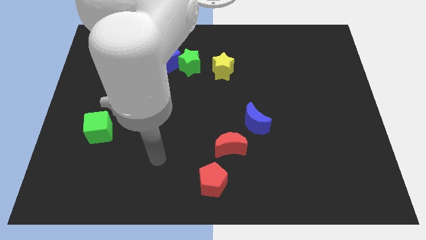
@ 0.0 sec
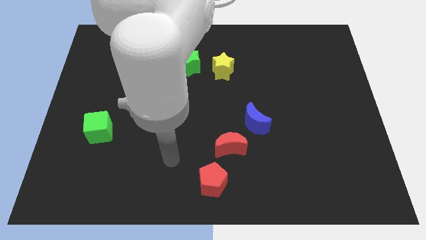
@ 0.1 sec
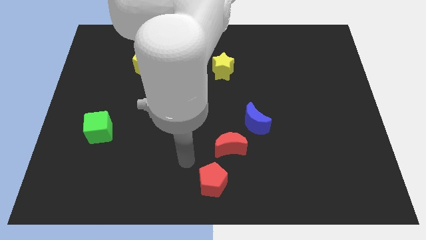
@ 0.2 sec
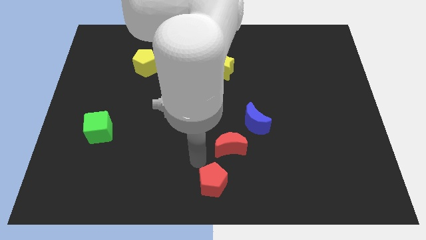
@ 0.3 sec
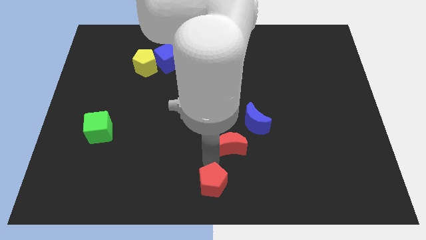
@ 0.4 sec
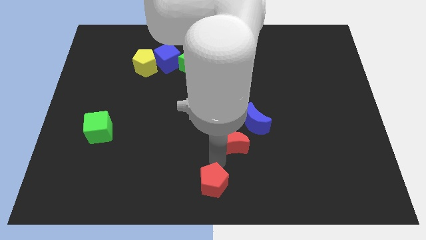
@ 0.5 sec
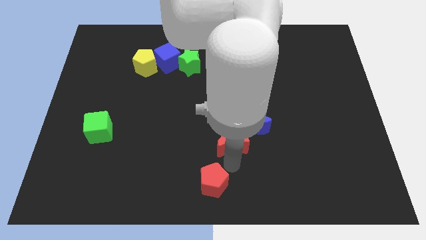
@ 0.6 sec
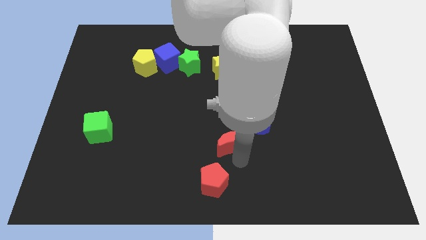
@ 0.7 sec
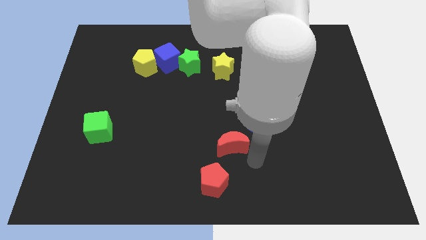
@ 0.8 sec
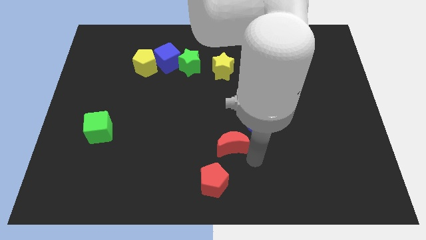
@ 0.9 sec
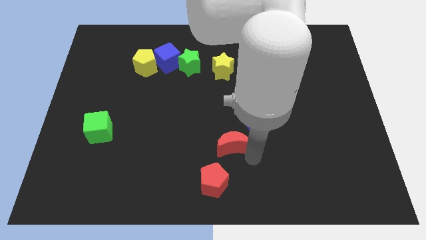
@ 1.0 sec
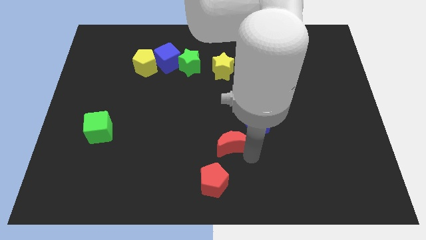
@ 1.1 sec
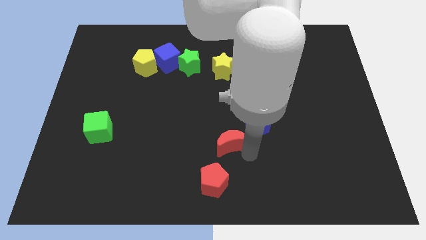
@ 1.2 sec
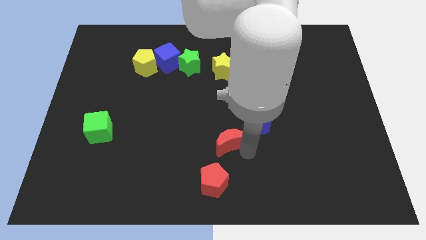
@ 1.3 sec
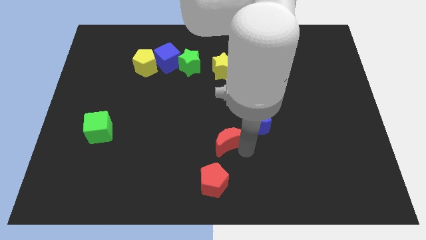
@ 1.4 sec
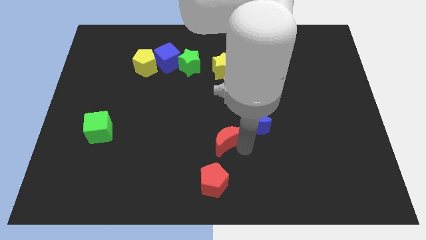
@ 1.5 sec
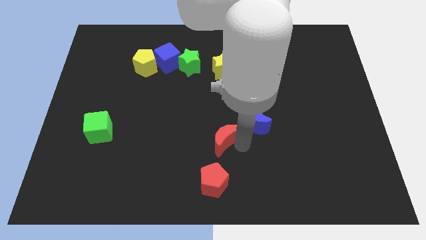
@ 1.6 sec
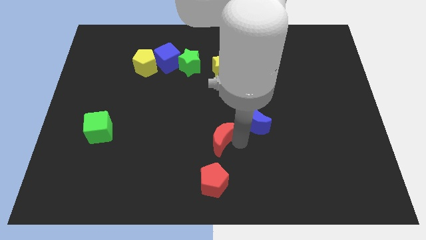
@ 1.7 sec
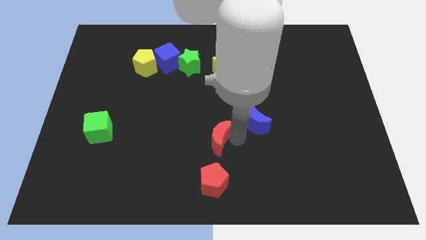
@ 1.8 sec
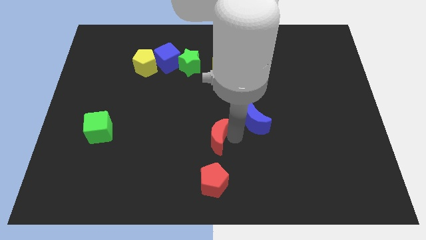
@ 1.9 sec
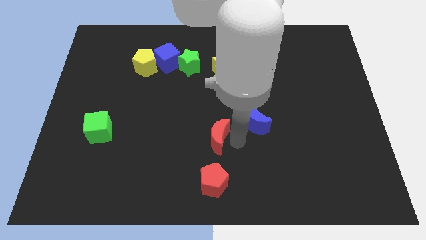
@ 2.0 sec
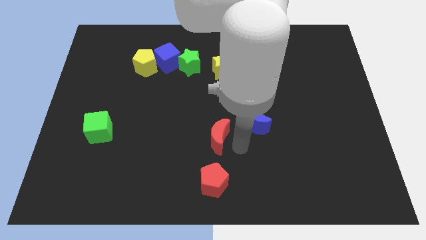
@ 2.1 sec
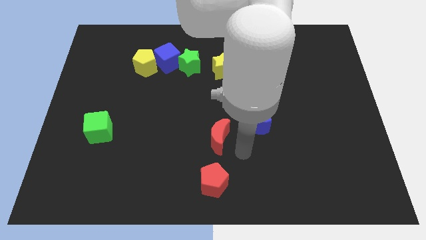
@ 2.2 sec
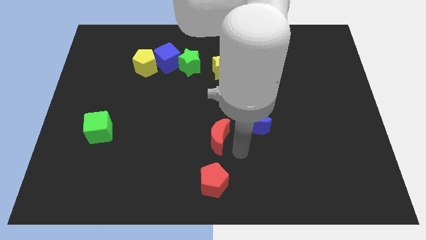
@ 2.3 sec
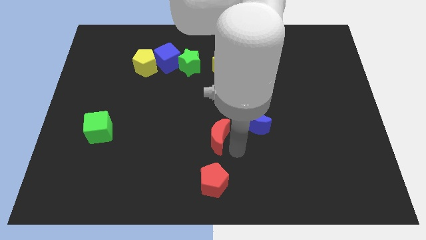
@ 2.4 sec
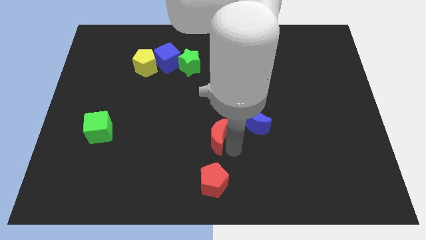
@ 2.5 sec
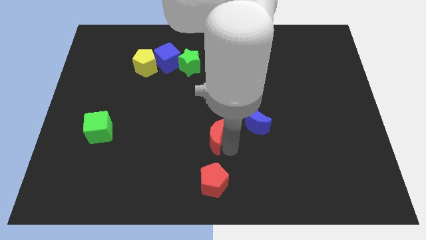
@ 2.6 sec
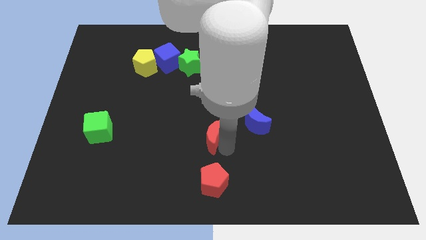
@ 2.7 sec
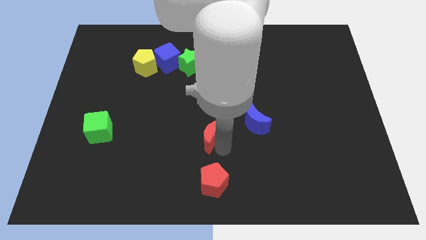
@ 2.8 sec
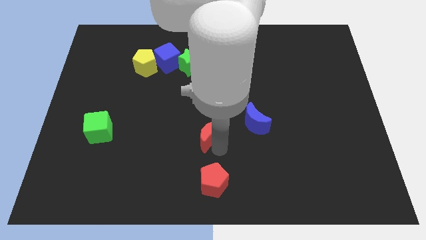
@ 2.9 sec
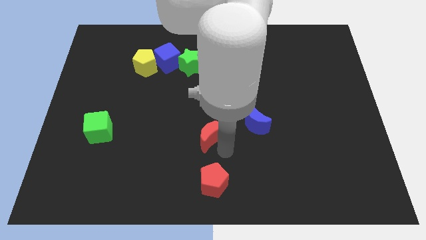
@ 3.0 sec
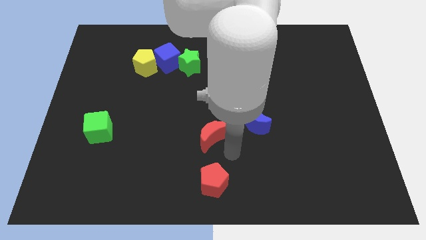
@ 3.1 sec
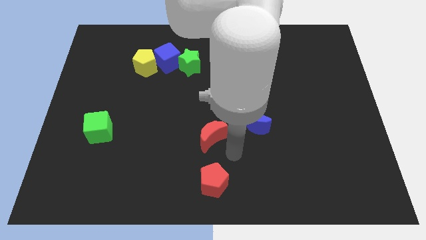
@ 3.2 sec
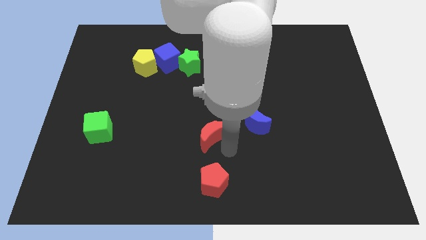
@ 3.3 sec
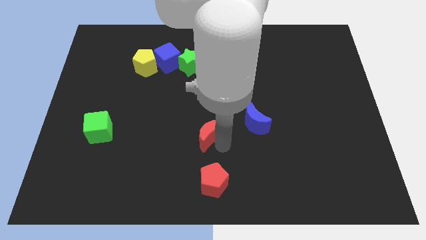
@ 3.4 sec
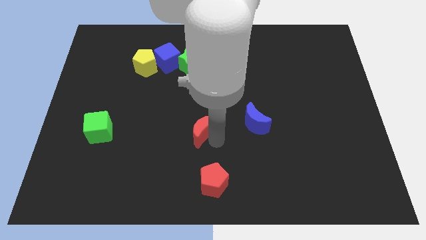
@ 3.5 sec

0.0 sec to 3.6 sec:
slide the red moon a bit upwards and then left

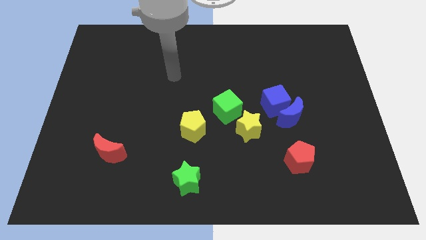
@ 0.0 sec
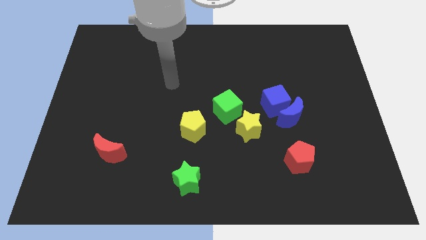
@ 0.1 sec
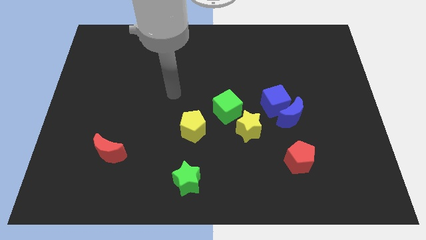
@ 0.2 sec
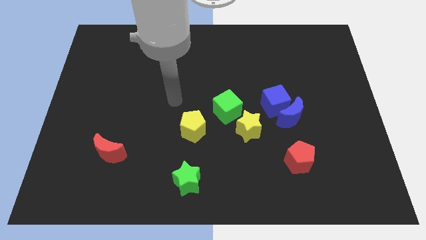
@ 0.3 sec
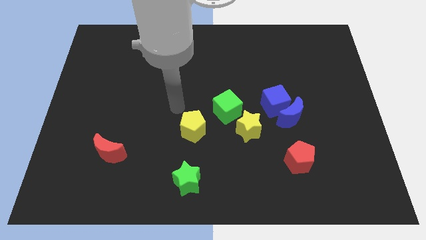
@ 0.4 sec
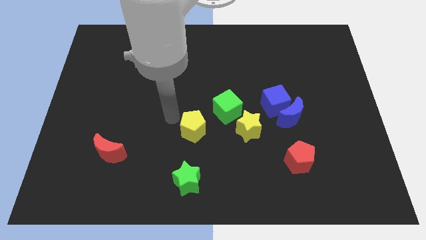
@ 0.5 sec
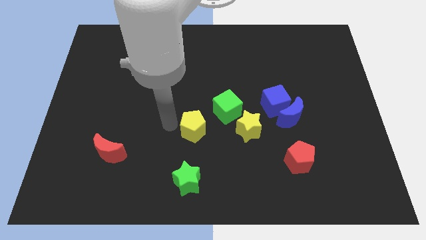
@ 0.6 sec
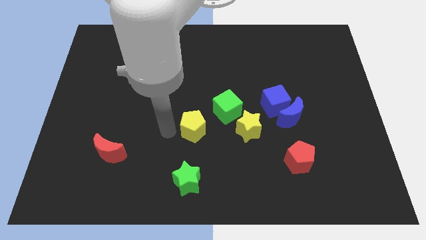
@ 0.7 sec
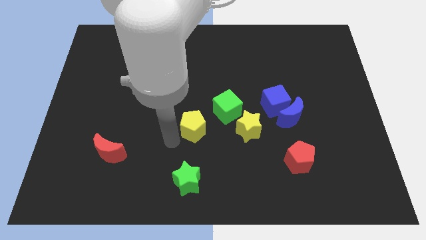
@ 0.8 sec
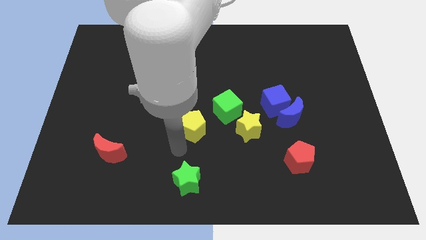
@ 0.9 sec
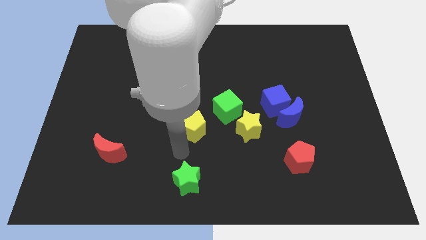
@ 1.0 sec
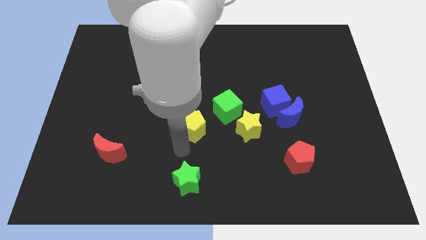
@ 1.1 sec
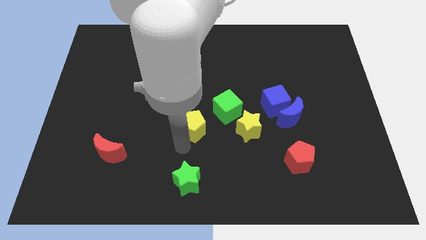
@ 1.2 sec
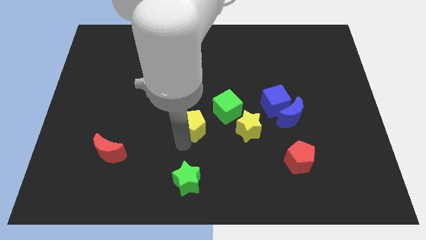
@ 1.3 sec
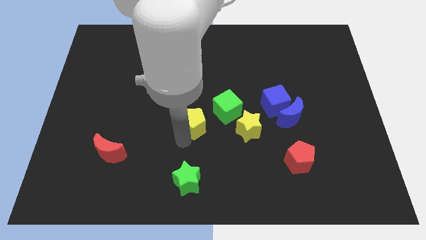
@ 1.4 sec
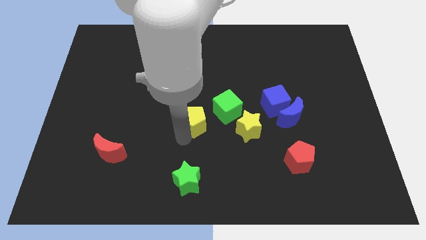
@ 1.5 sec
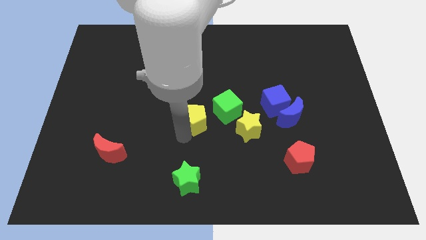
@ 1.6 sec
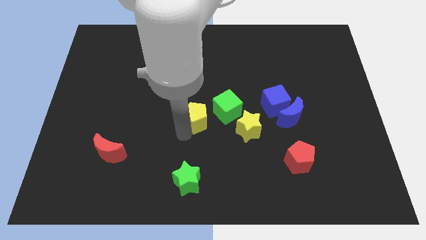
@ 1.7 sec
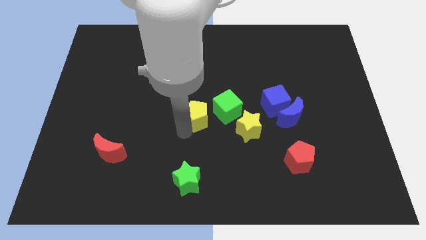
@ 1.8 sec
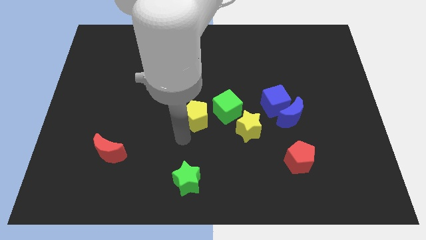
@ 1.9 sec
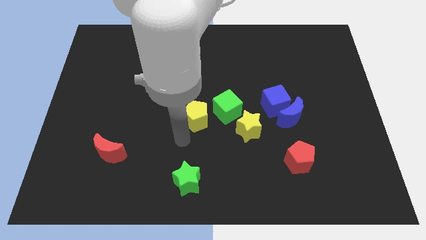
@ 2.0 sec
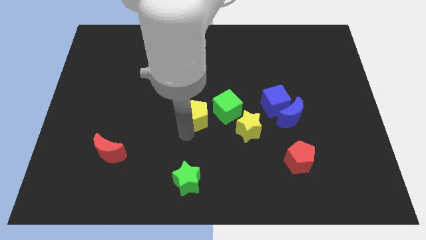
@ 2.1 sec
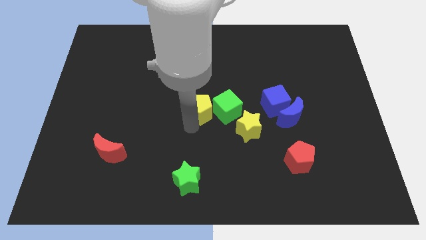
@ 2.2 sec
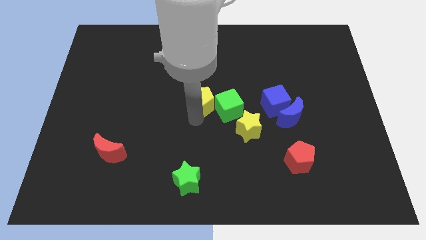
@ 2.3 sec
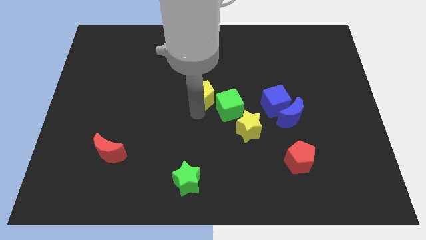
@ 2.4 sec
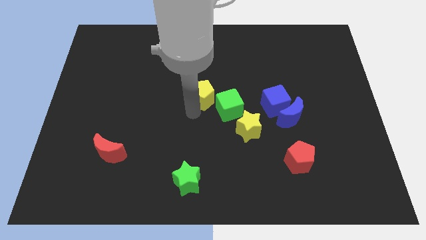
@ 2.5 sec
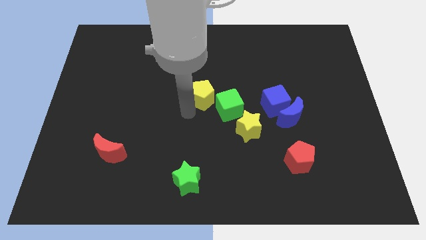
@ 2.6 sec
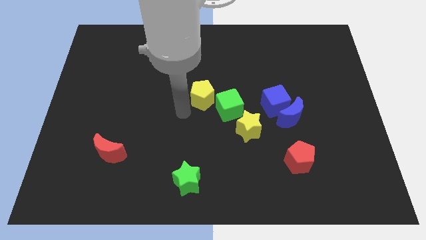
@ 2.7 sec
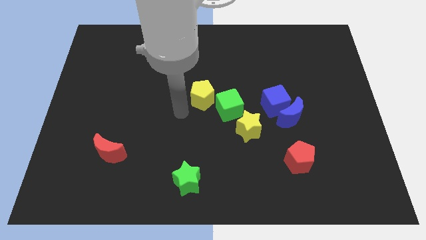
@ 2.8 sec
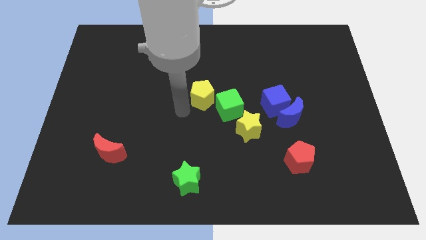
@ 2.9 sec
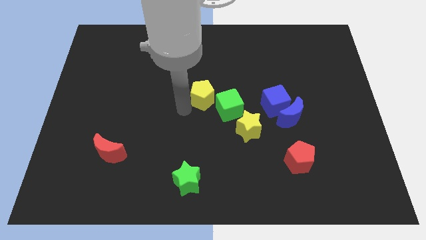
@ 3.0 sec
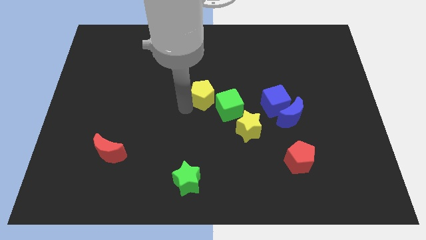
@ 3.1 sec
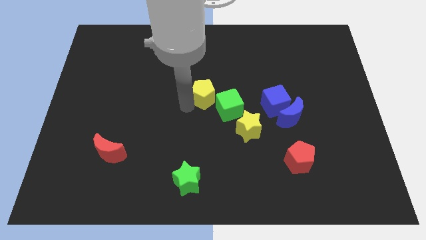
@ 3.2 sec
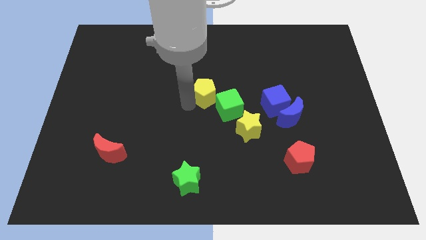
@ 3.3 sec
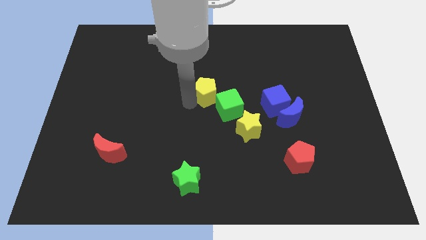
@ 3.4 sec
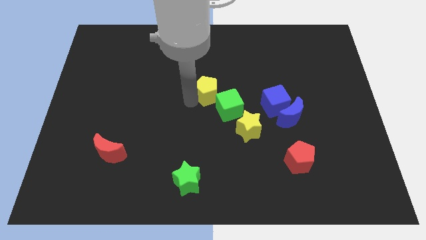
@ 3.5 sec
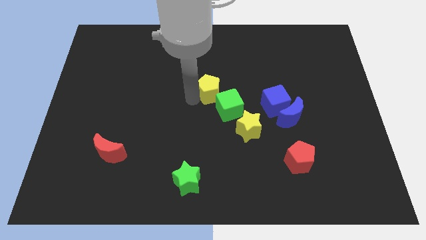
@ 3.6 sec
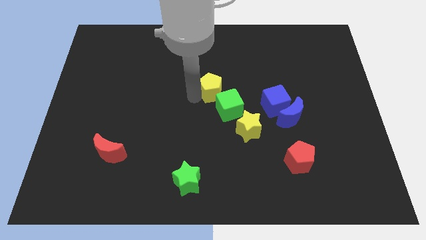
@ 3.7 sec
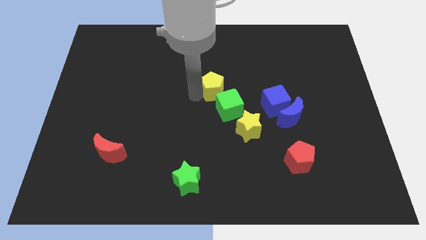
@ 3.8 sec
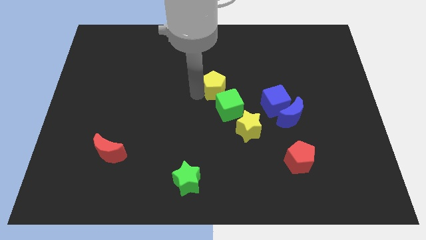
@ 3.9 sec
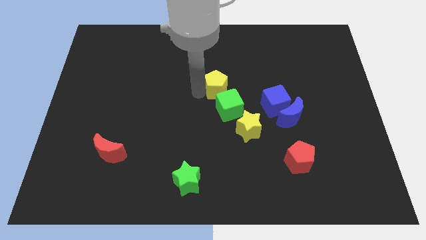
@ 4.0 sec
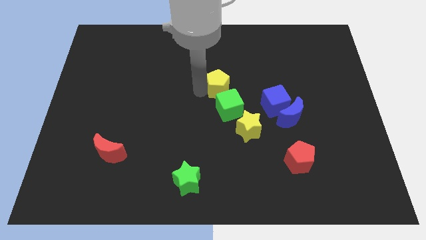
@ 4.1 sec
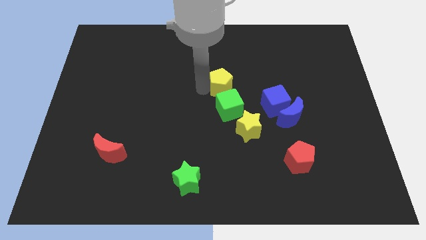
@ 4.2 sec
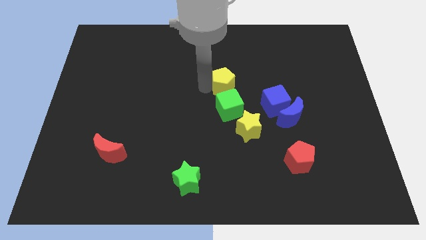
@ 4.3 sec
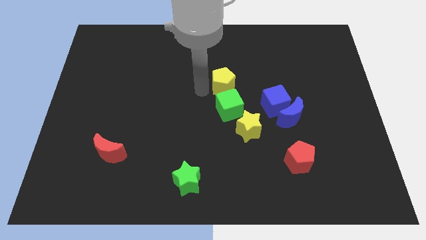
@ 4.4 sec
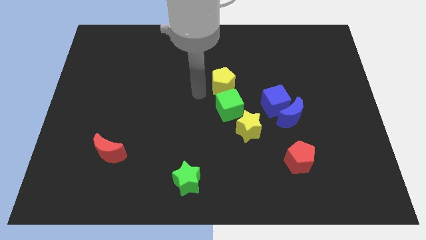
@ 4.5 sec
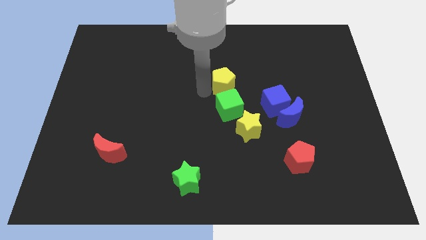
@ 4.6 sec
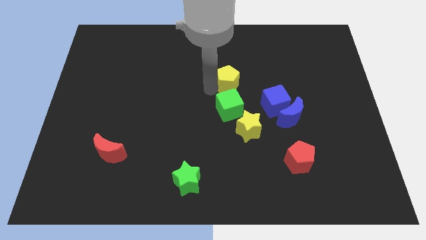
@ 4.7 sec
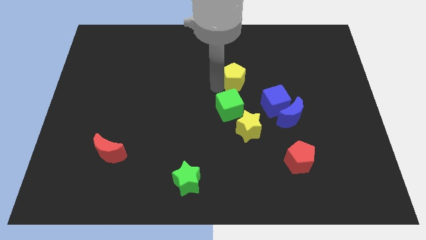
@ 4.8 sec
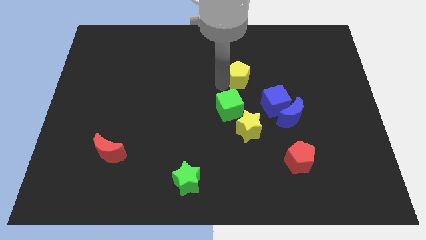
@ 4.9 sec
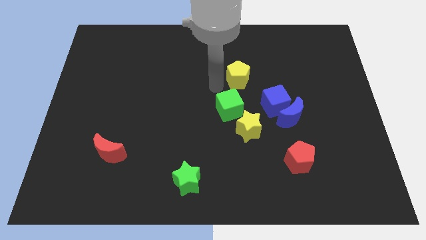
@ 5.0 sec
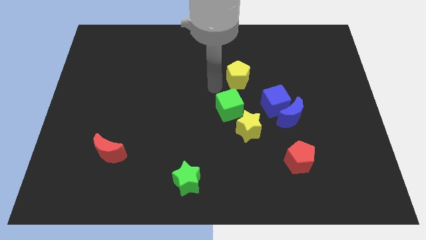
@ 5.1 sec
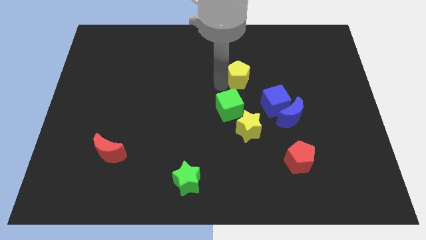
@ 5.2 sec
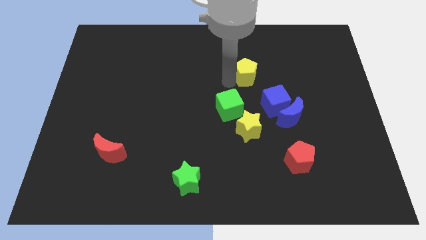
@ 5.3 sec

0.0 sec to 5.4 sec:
move the yellow pentagon upwards and to the right
